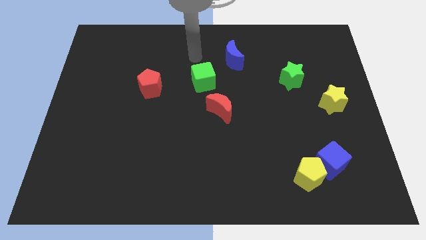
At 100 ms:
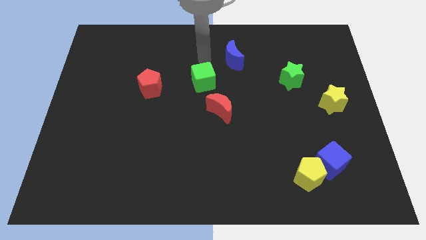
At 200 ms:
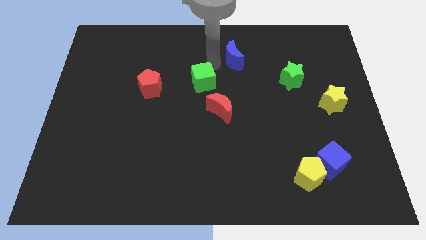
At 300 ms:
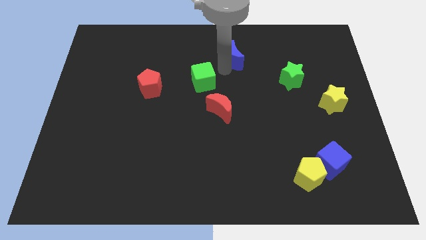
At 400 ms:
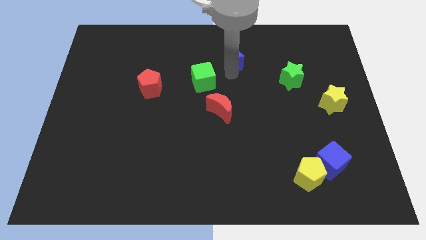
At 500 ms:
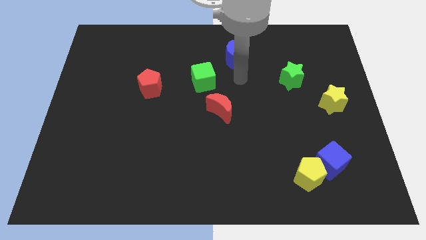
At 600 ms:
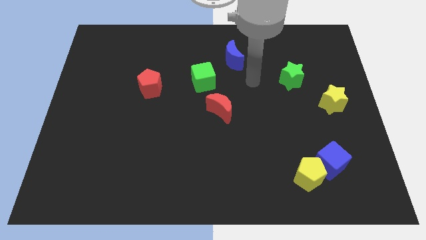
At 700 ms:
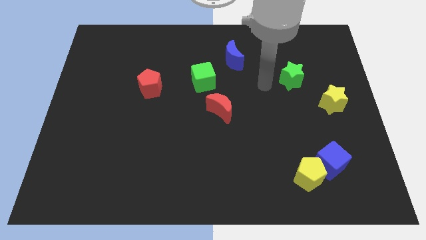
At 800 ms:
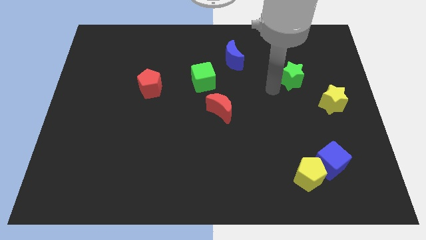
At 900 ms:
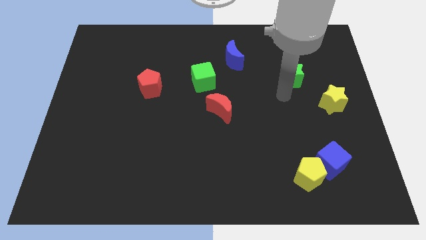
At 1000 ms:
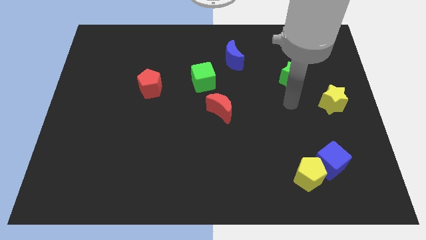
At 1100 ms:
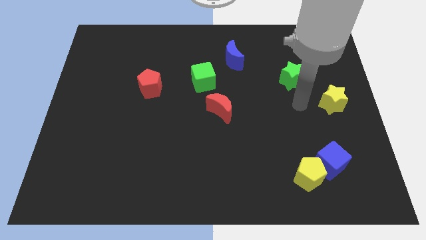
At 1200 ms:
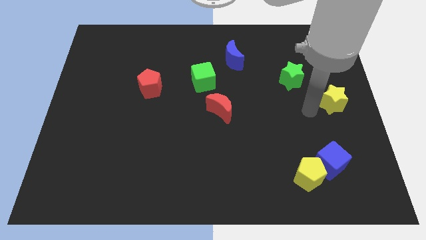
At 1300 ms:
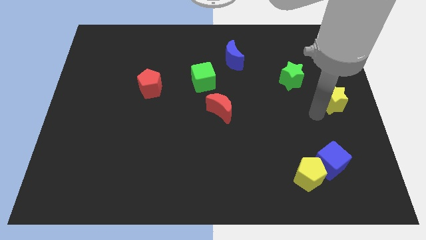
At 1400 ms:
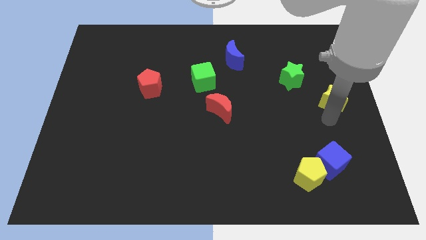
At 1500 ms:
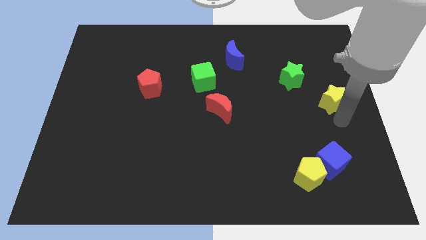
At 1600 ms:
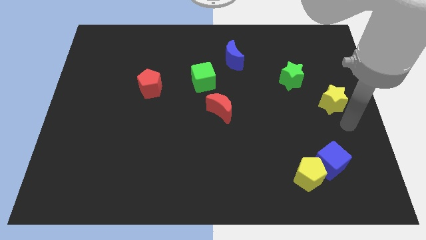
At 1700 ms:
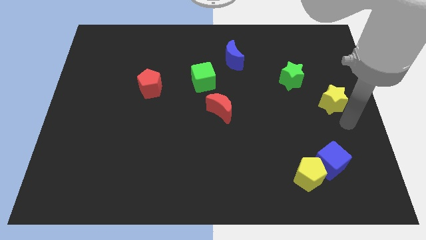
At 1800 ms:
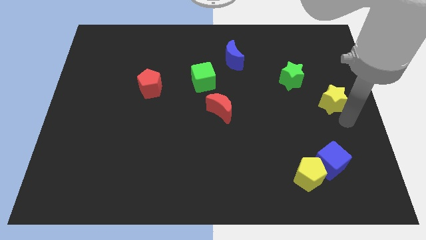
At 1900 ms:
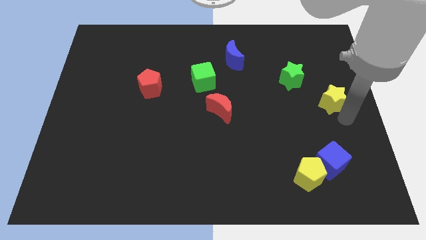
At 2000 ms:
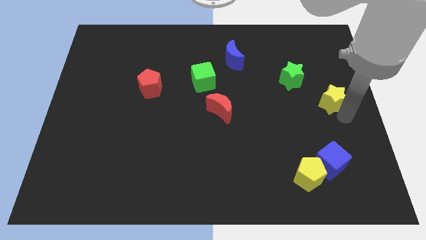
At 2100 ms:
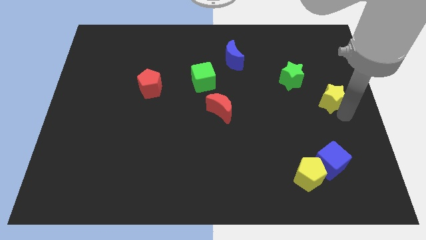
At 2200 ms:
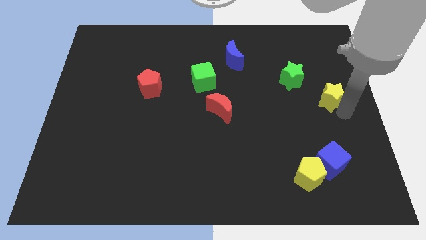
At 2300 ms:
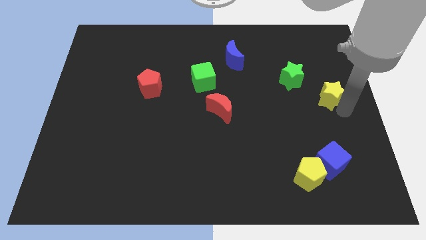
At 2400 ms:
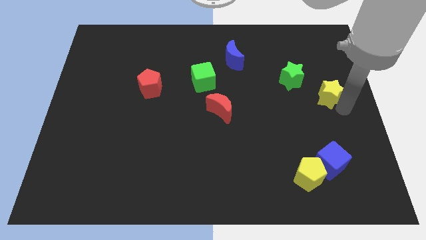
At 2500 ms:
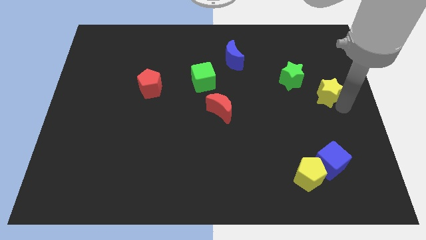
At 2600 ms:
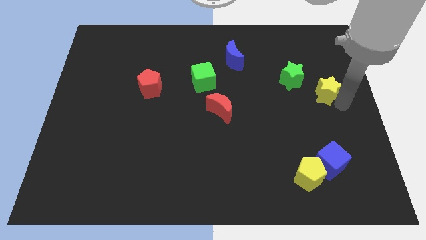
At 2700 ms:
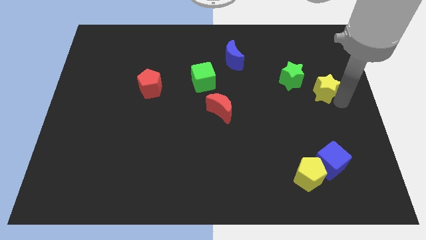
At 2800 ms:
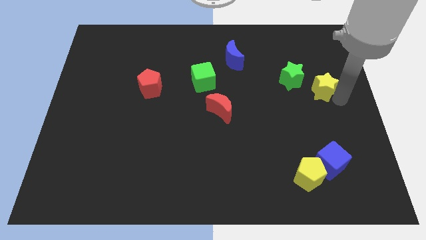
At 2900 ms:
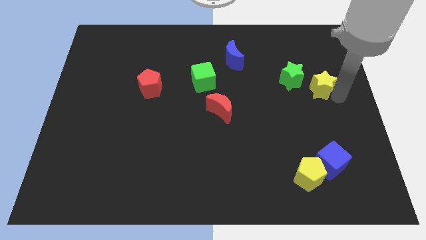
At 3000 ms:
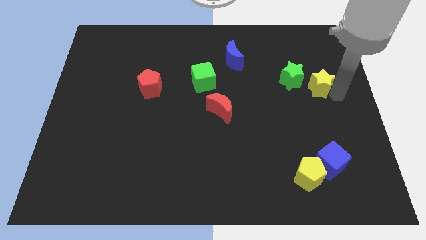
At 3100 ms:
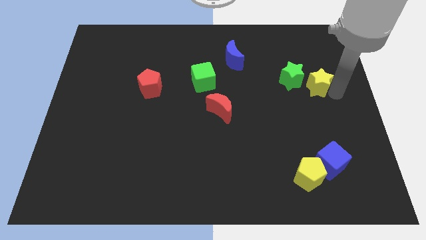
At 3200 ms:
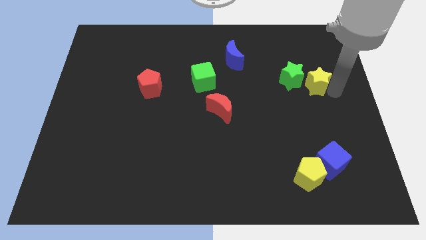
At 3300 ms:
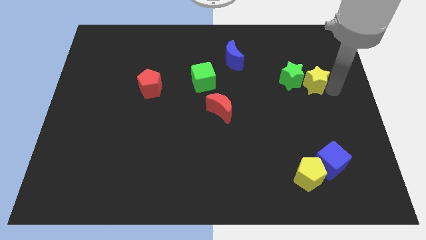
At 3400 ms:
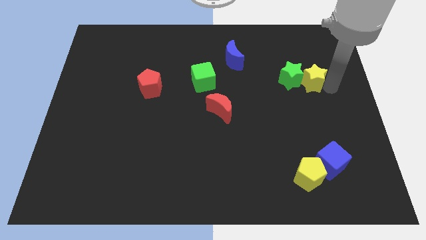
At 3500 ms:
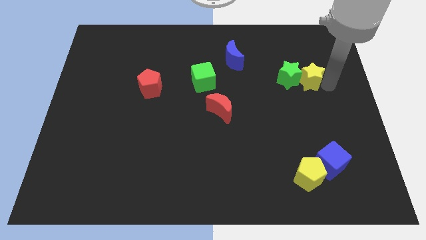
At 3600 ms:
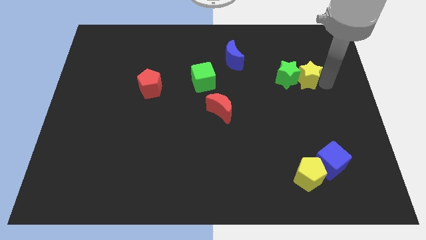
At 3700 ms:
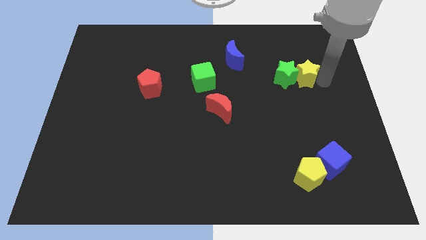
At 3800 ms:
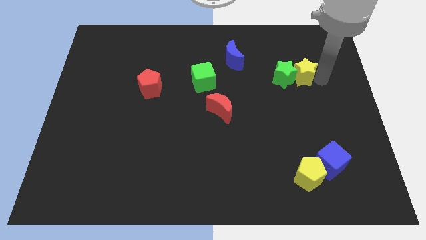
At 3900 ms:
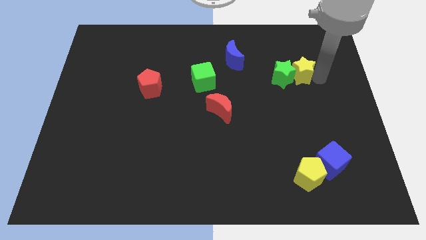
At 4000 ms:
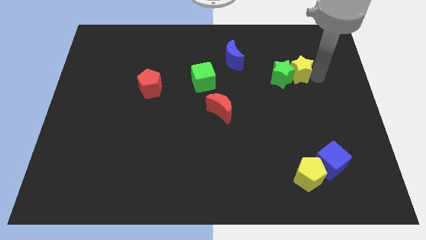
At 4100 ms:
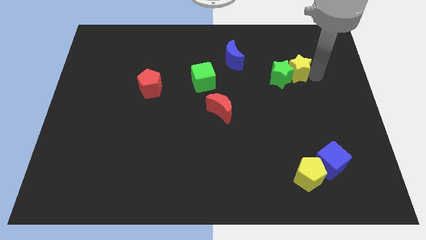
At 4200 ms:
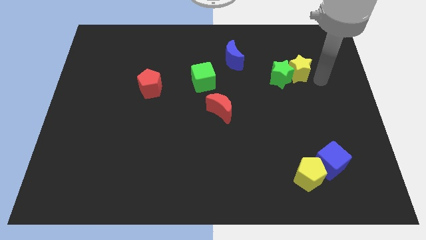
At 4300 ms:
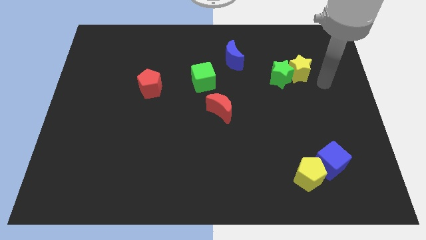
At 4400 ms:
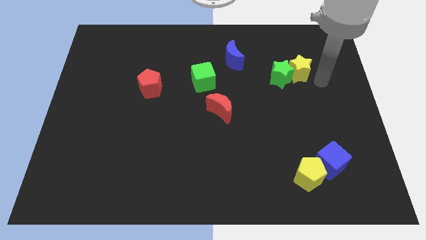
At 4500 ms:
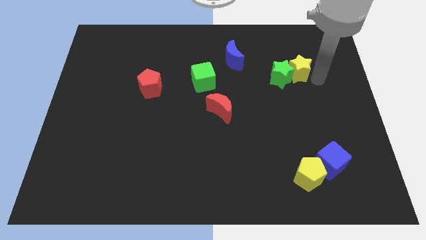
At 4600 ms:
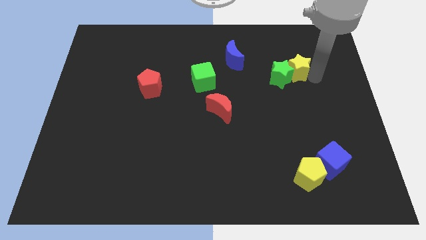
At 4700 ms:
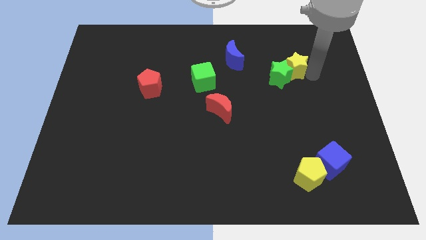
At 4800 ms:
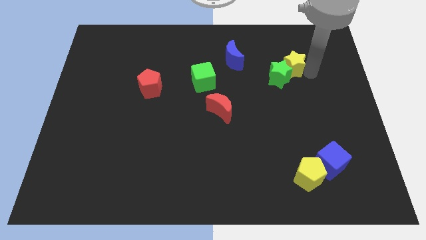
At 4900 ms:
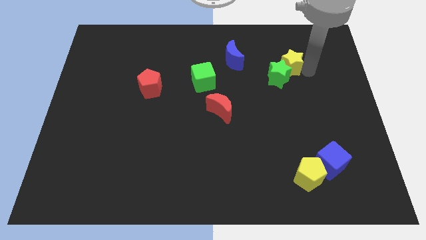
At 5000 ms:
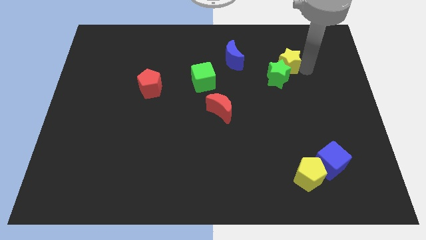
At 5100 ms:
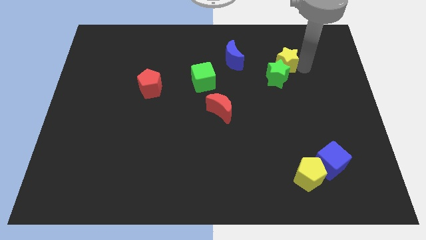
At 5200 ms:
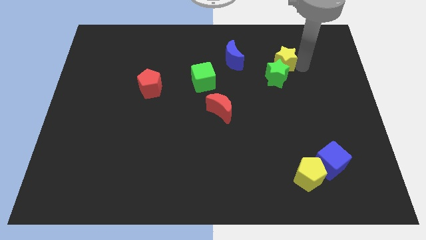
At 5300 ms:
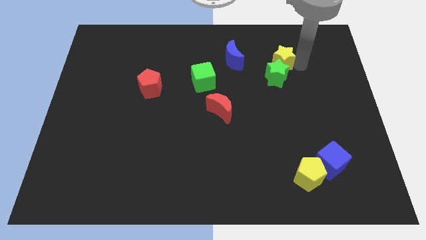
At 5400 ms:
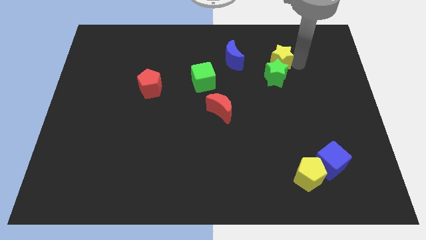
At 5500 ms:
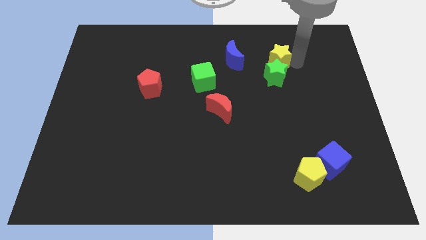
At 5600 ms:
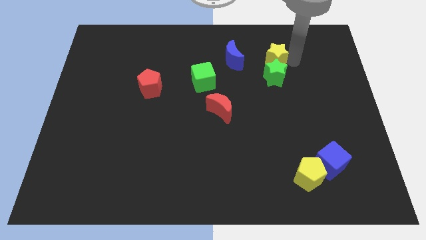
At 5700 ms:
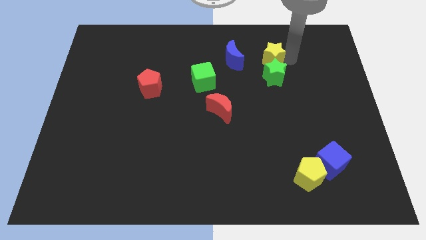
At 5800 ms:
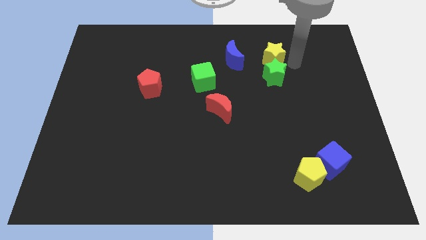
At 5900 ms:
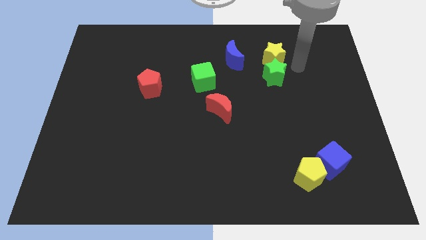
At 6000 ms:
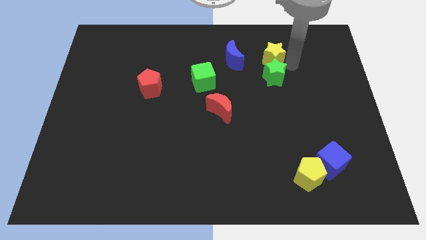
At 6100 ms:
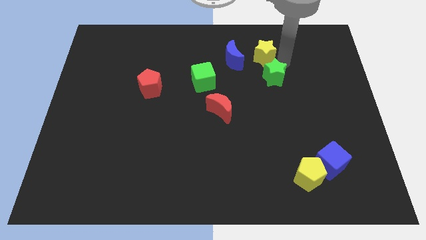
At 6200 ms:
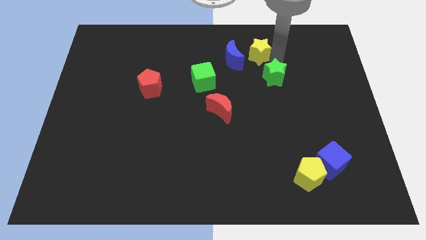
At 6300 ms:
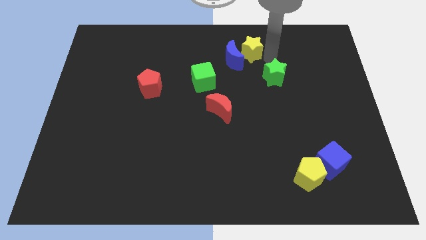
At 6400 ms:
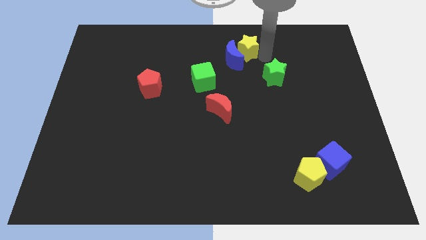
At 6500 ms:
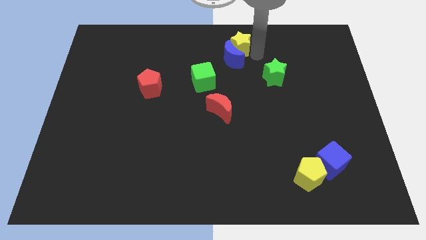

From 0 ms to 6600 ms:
slide the yellow star to the top
